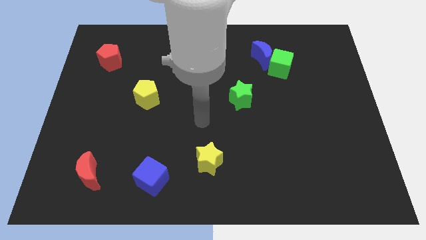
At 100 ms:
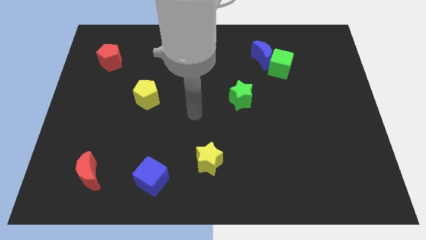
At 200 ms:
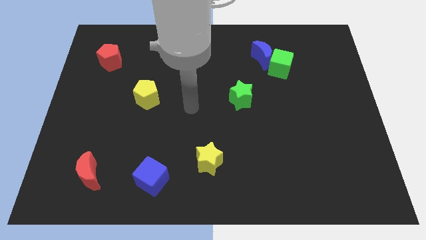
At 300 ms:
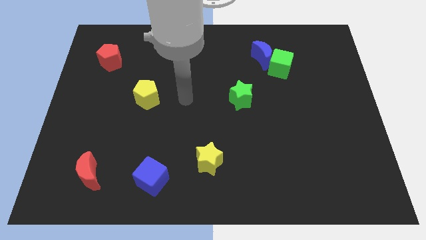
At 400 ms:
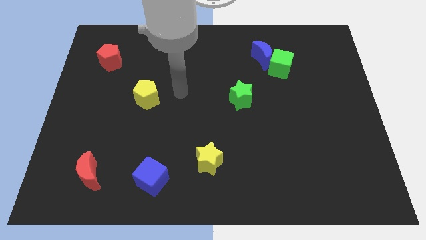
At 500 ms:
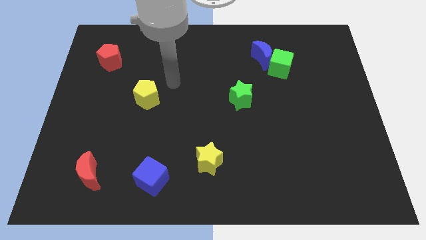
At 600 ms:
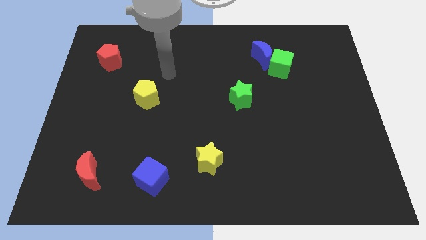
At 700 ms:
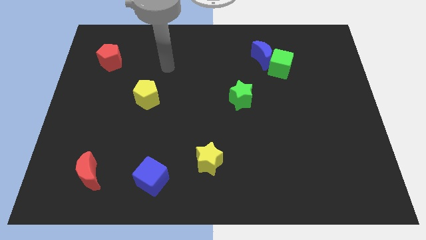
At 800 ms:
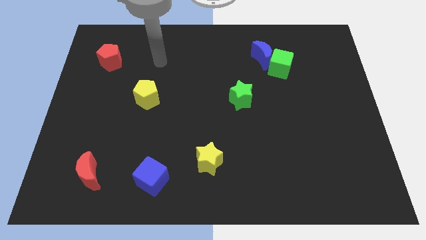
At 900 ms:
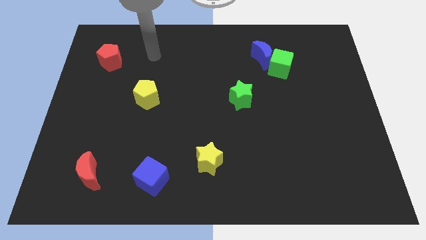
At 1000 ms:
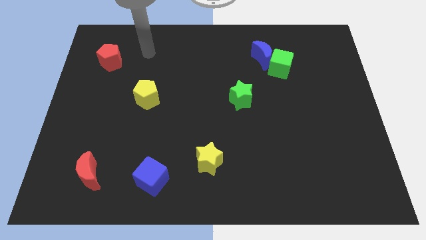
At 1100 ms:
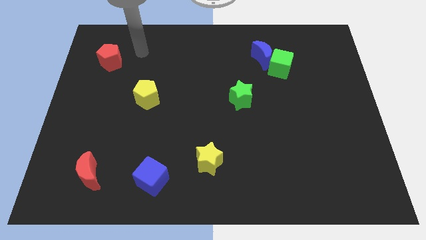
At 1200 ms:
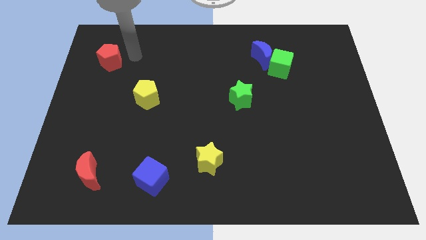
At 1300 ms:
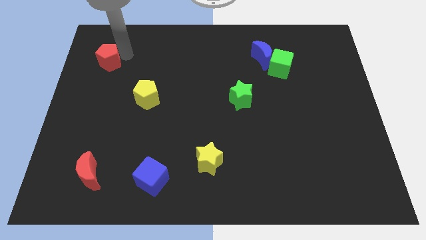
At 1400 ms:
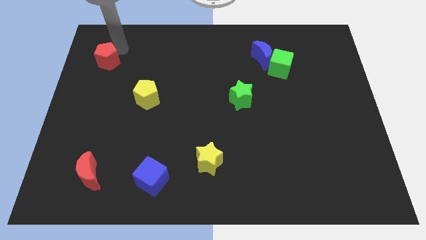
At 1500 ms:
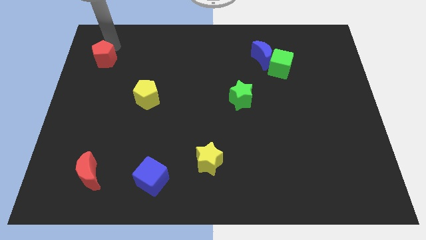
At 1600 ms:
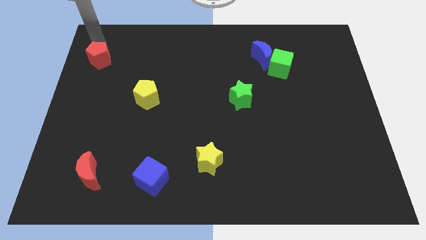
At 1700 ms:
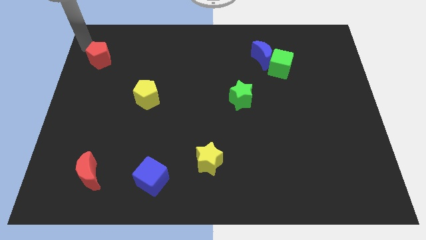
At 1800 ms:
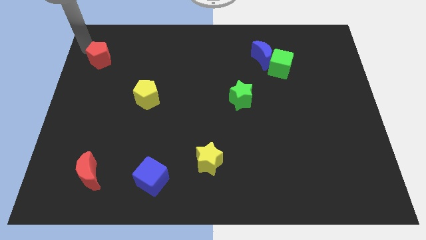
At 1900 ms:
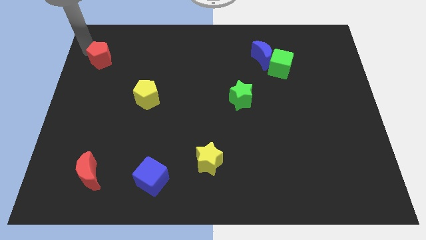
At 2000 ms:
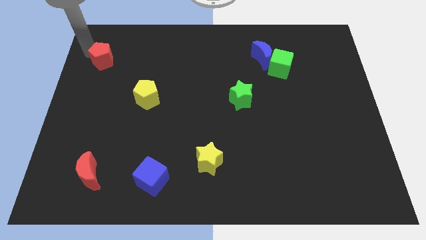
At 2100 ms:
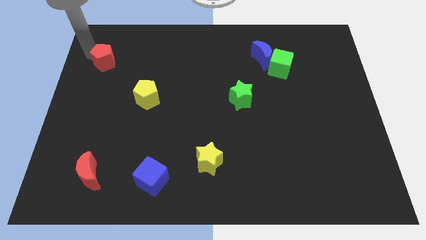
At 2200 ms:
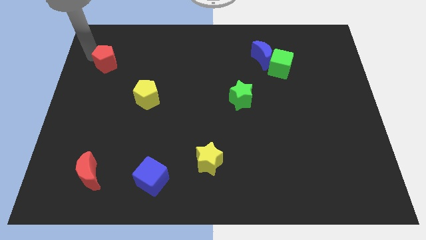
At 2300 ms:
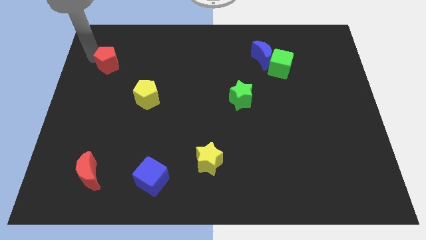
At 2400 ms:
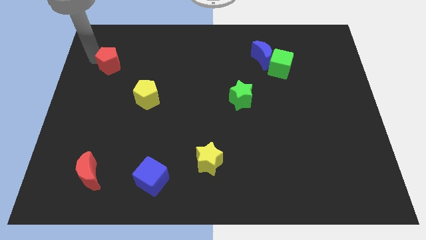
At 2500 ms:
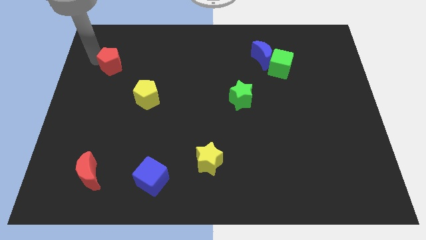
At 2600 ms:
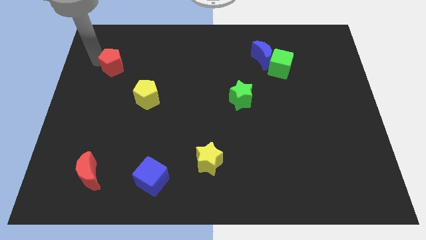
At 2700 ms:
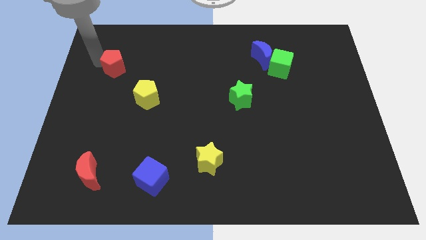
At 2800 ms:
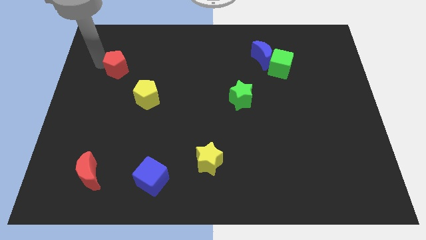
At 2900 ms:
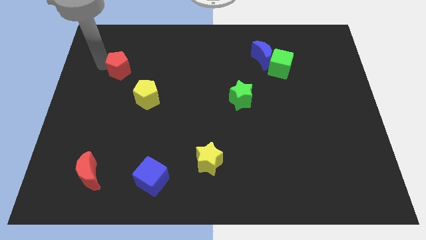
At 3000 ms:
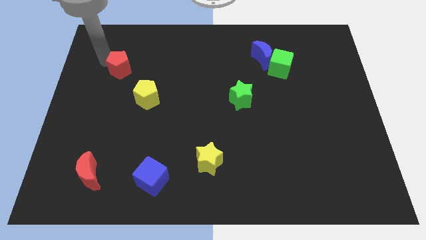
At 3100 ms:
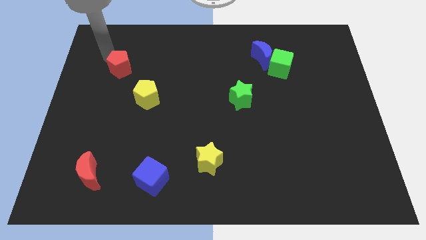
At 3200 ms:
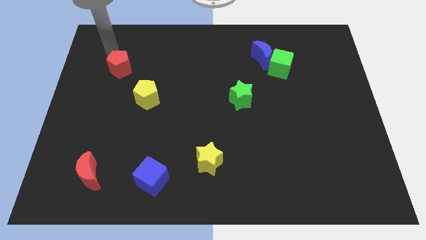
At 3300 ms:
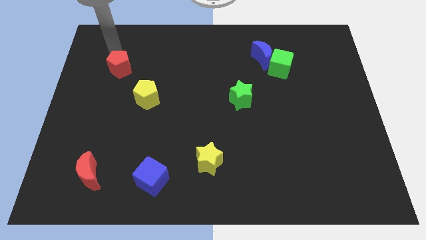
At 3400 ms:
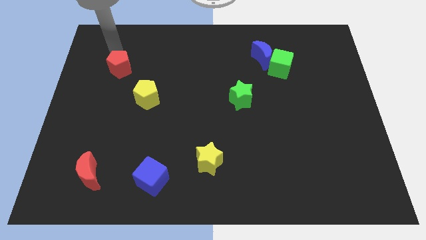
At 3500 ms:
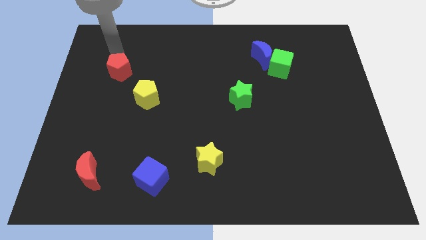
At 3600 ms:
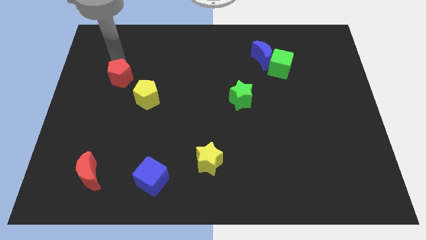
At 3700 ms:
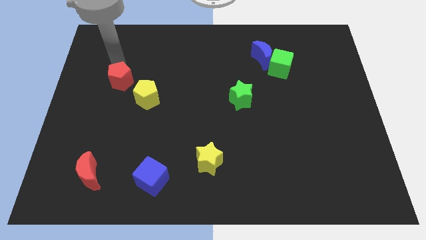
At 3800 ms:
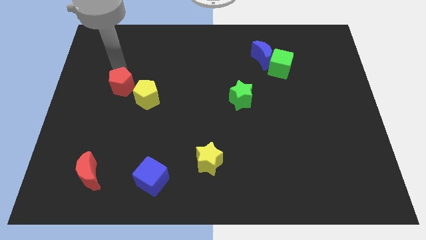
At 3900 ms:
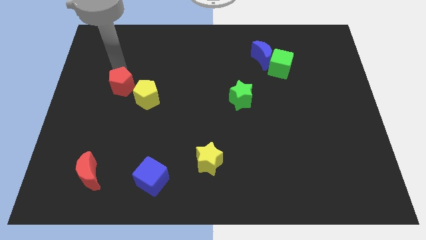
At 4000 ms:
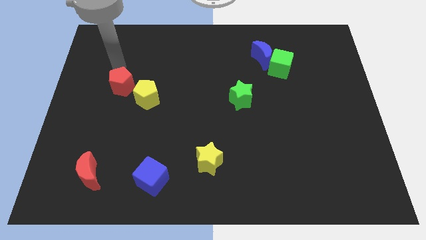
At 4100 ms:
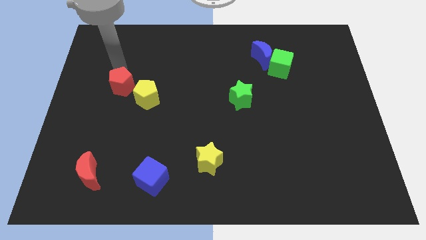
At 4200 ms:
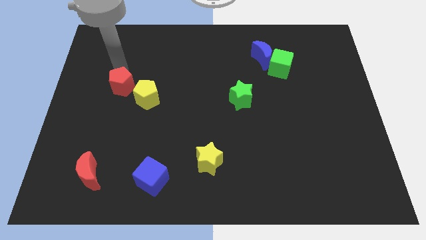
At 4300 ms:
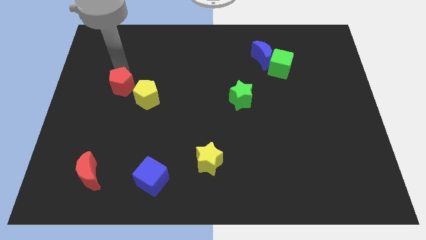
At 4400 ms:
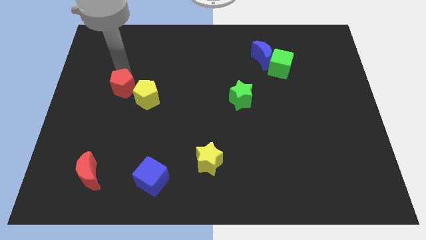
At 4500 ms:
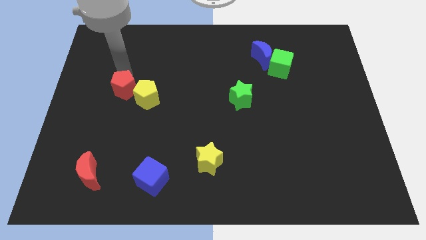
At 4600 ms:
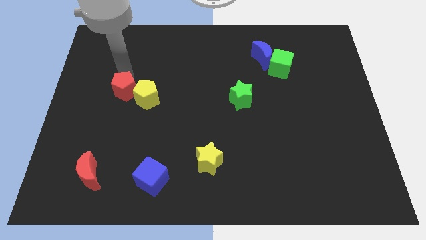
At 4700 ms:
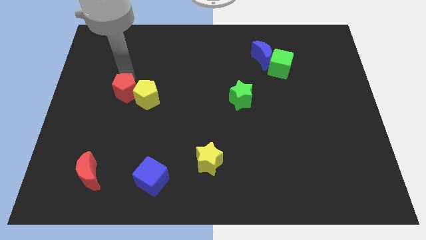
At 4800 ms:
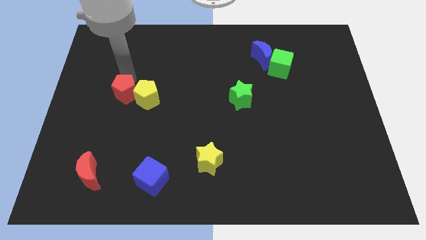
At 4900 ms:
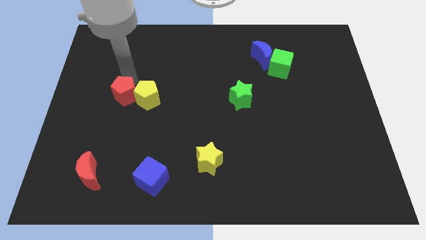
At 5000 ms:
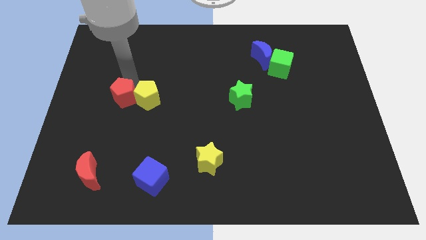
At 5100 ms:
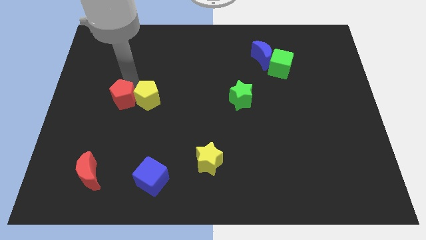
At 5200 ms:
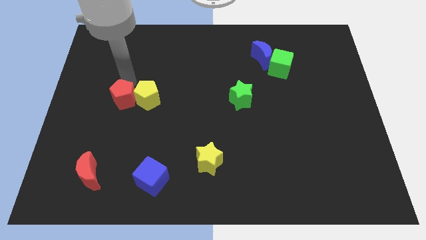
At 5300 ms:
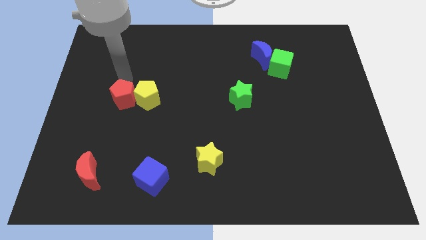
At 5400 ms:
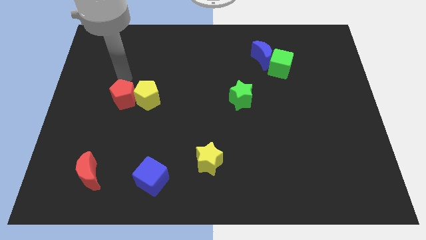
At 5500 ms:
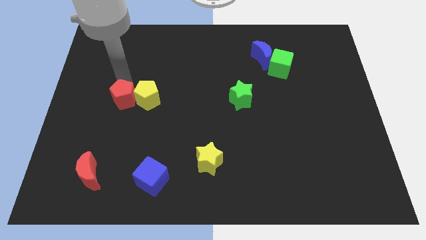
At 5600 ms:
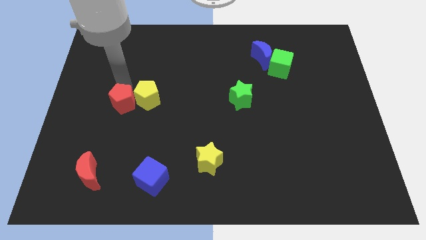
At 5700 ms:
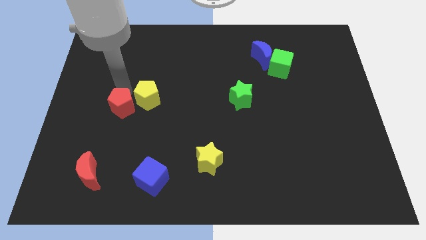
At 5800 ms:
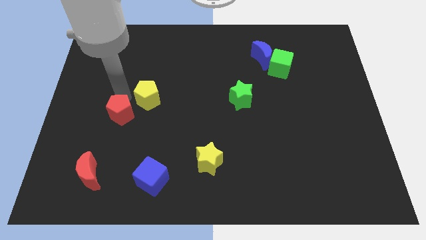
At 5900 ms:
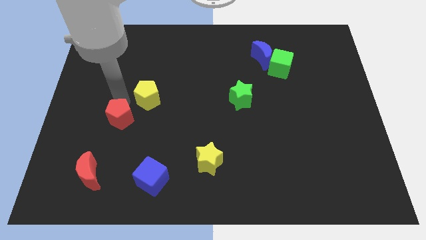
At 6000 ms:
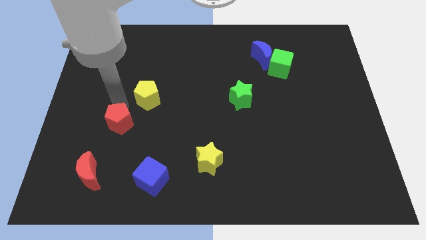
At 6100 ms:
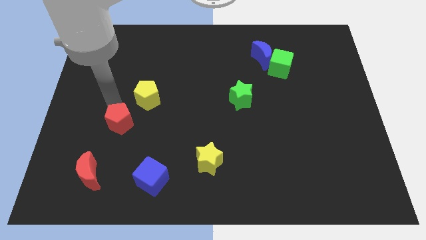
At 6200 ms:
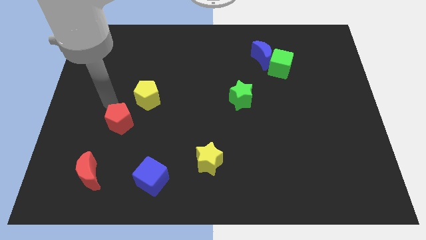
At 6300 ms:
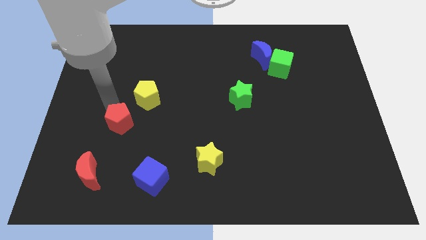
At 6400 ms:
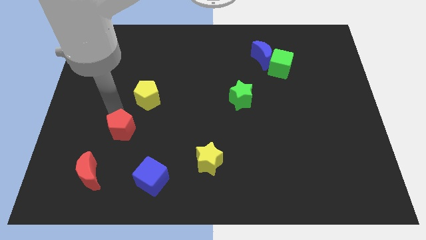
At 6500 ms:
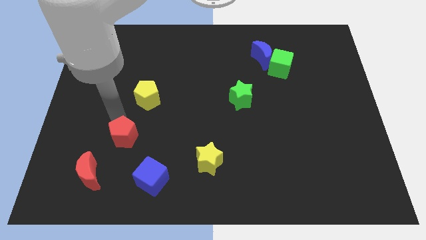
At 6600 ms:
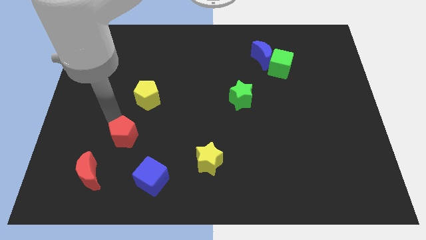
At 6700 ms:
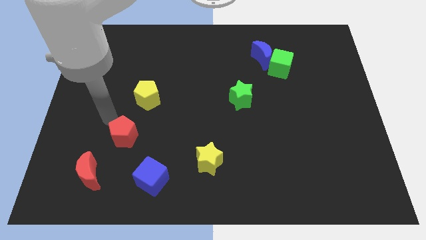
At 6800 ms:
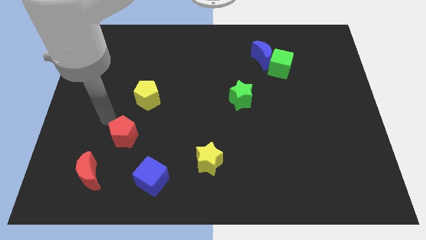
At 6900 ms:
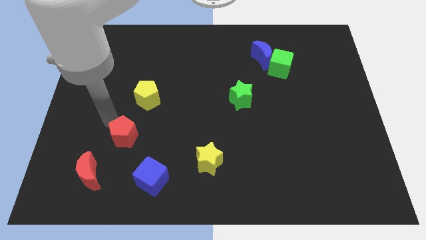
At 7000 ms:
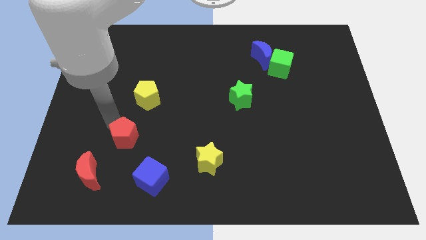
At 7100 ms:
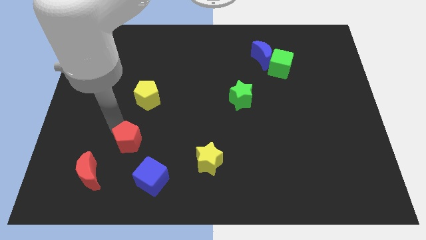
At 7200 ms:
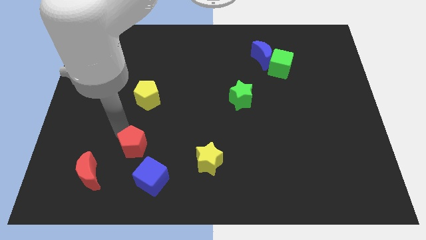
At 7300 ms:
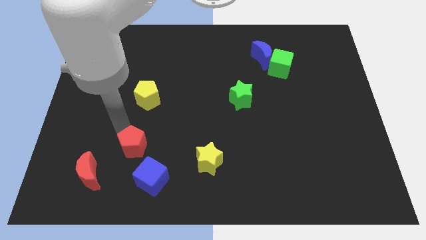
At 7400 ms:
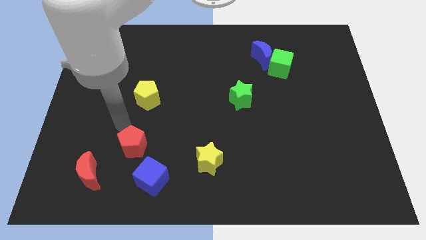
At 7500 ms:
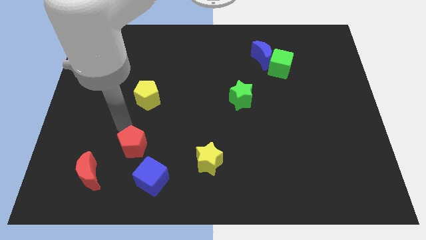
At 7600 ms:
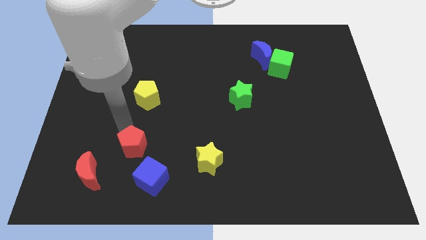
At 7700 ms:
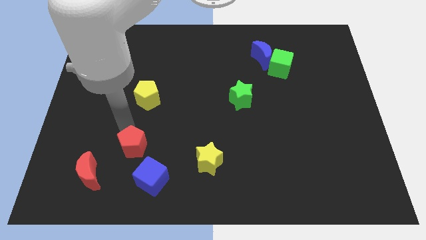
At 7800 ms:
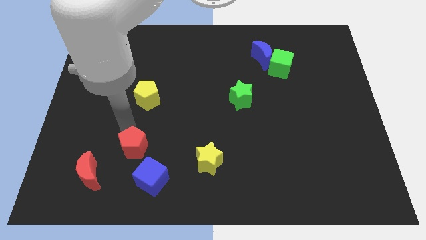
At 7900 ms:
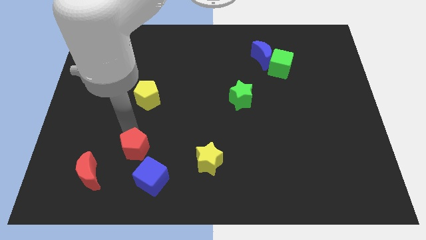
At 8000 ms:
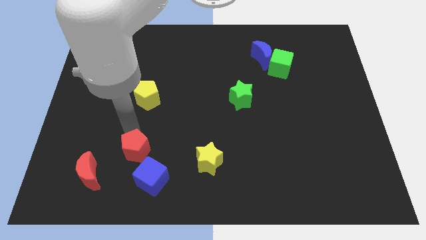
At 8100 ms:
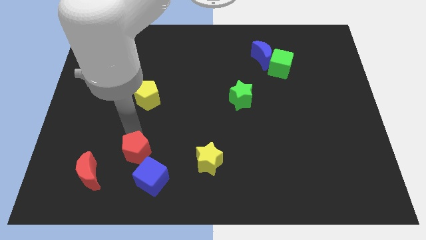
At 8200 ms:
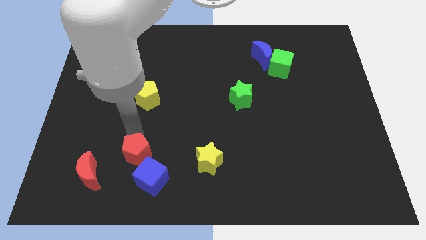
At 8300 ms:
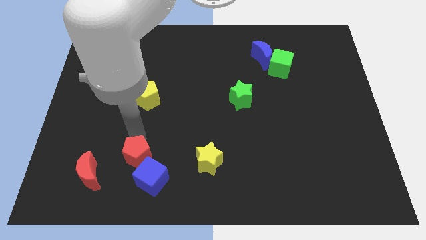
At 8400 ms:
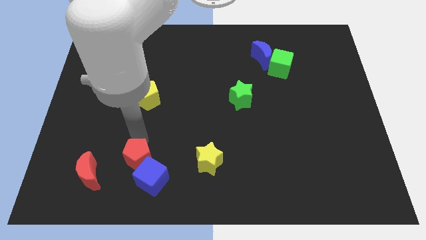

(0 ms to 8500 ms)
slide the red pentagon to the blue cube
